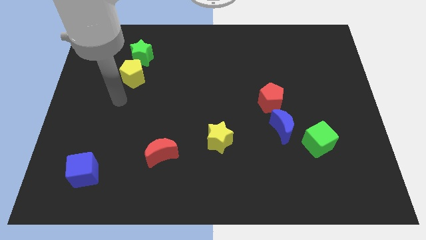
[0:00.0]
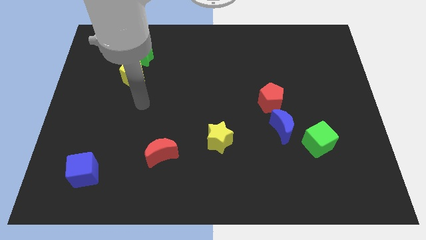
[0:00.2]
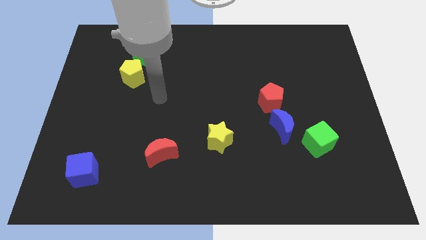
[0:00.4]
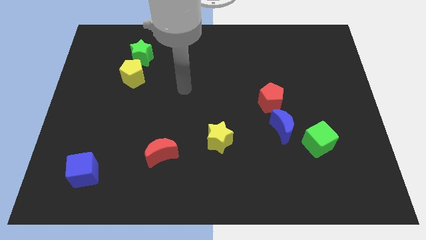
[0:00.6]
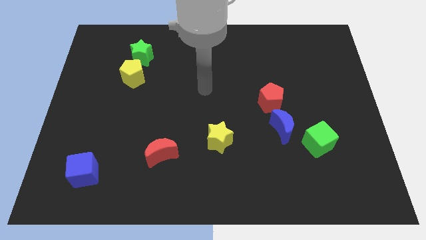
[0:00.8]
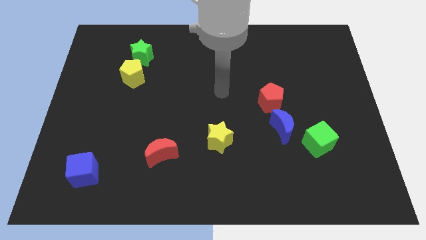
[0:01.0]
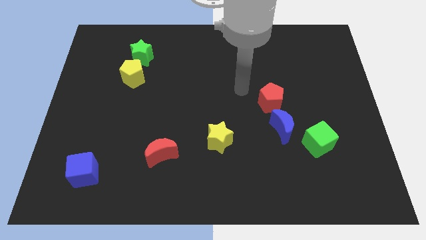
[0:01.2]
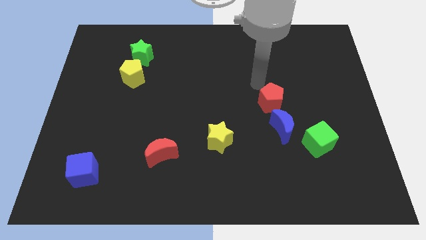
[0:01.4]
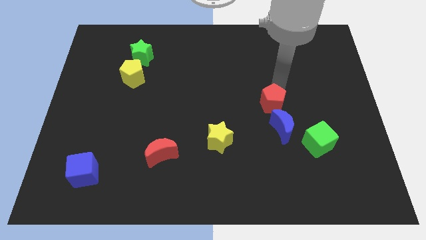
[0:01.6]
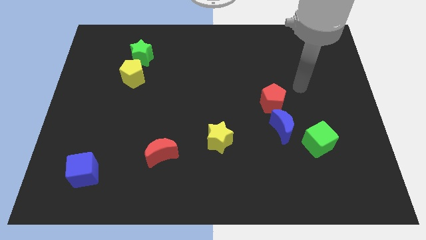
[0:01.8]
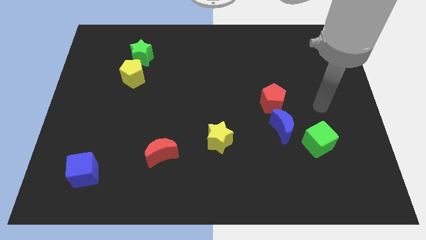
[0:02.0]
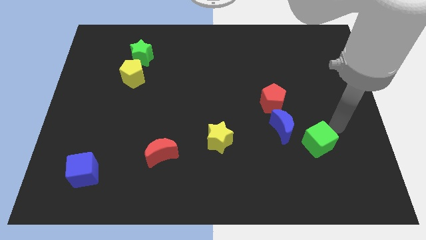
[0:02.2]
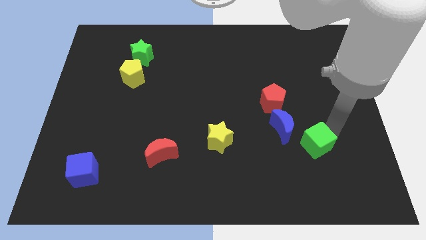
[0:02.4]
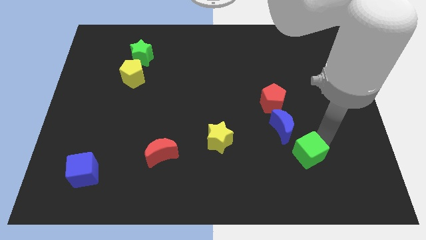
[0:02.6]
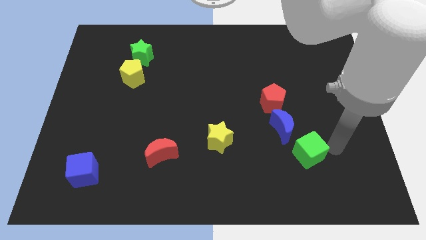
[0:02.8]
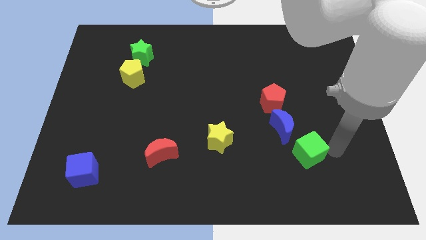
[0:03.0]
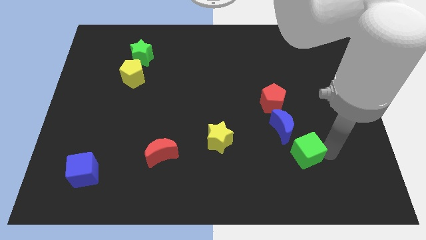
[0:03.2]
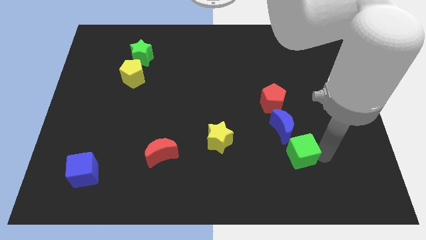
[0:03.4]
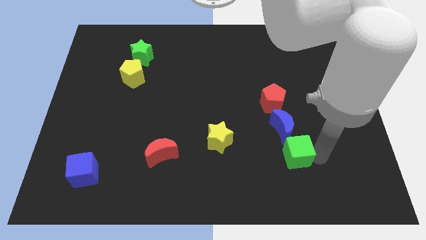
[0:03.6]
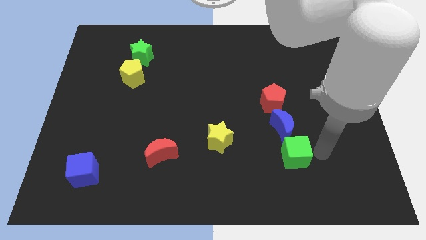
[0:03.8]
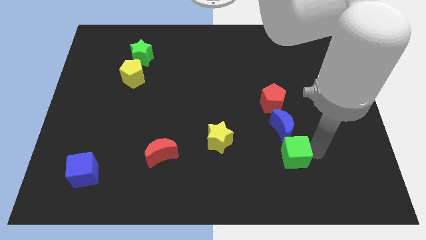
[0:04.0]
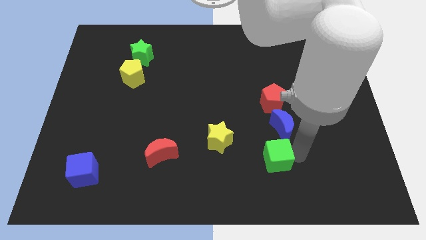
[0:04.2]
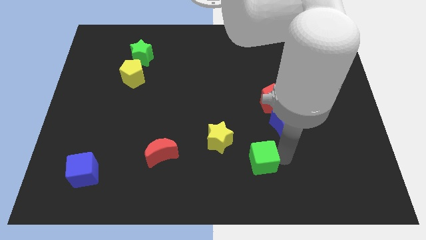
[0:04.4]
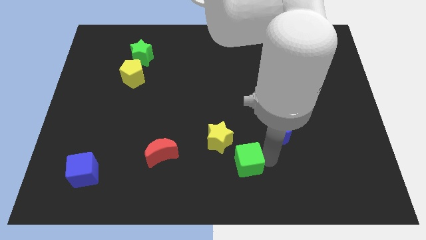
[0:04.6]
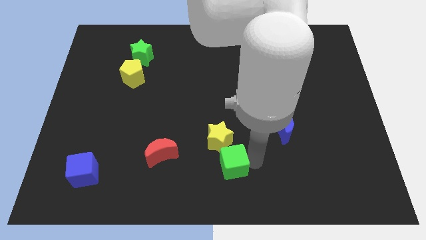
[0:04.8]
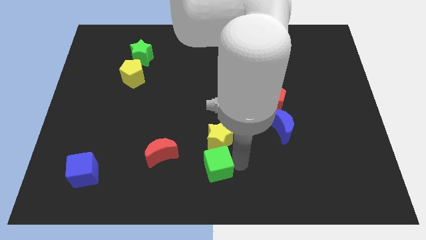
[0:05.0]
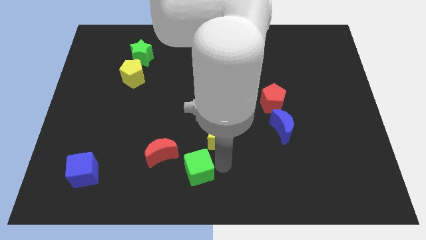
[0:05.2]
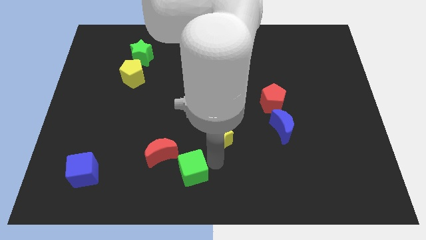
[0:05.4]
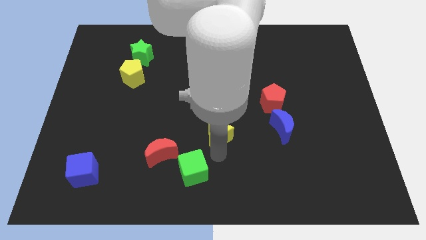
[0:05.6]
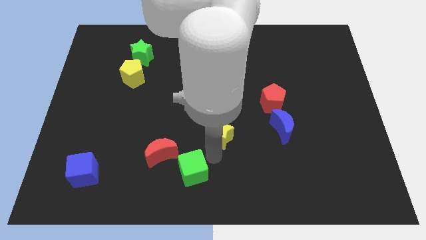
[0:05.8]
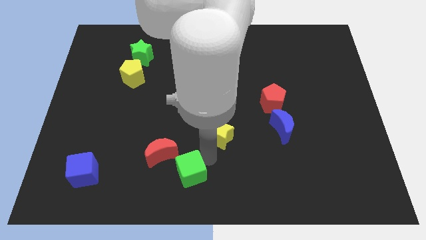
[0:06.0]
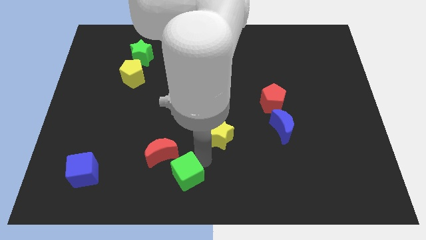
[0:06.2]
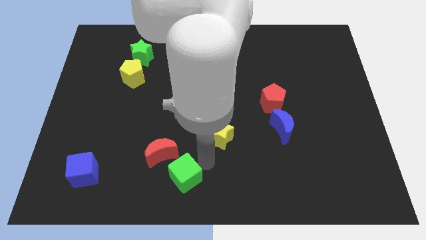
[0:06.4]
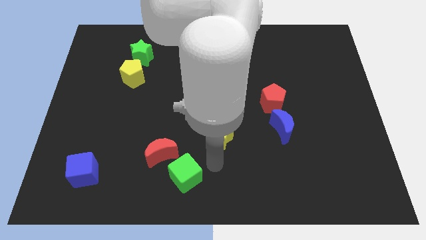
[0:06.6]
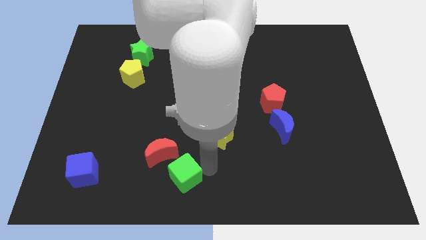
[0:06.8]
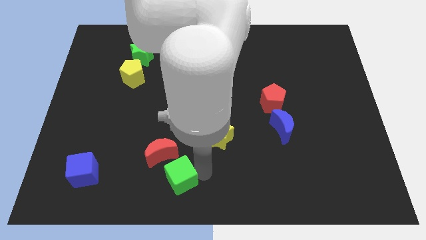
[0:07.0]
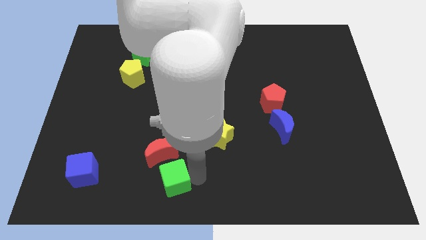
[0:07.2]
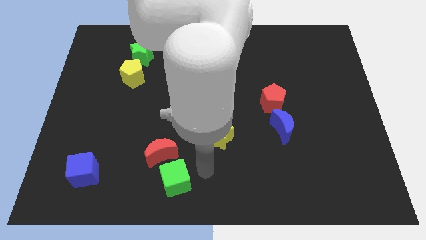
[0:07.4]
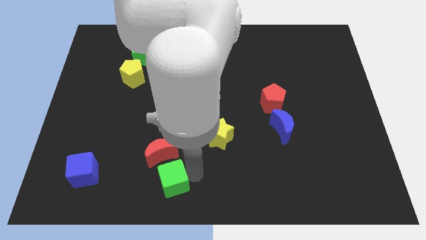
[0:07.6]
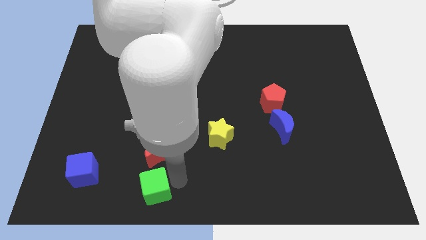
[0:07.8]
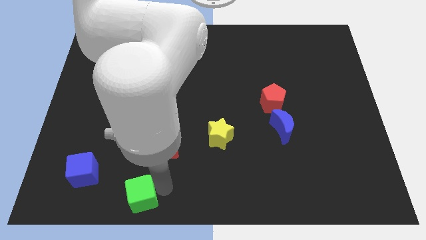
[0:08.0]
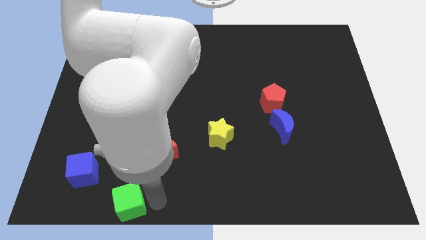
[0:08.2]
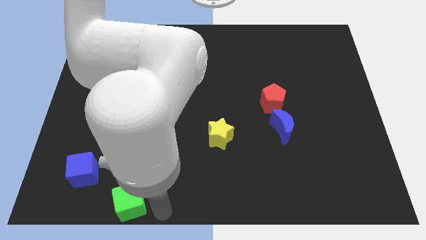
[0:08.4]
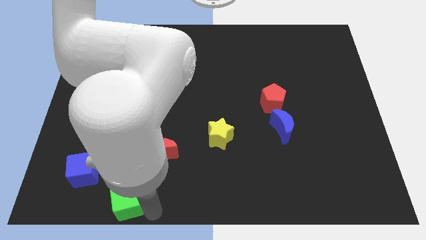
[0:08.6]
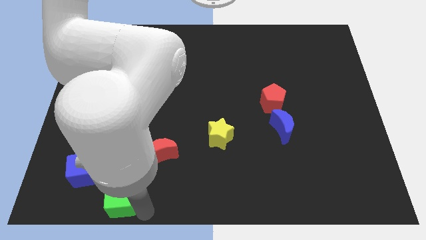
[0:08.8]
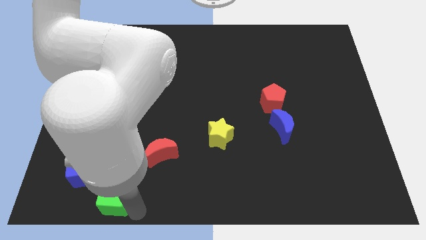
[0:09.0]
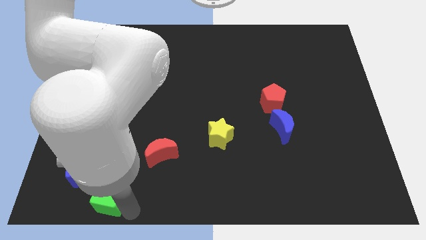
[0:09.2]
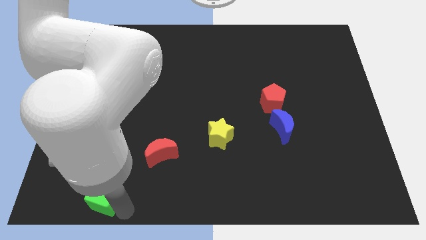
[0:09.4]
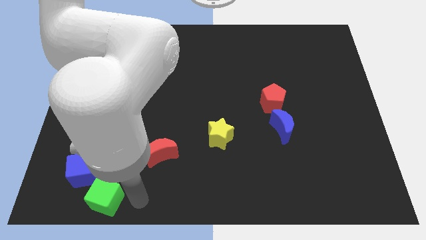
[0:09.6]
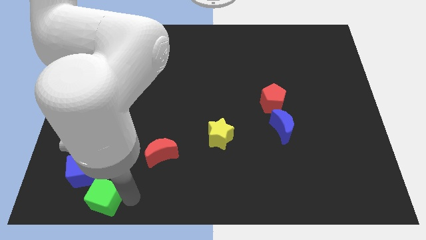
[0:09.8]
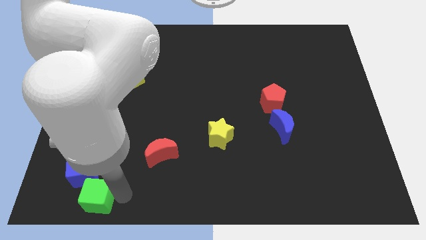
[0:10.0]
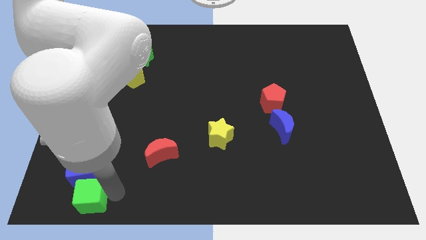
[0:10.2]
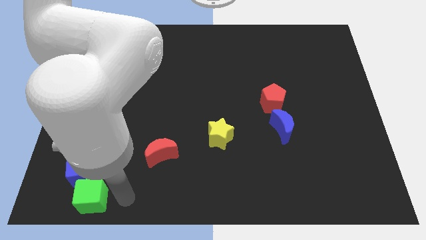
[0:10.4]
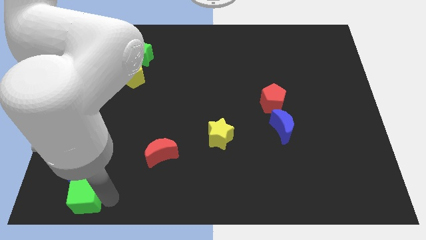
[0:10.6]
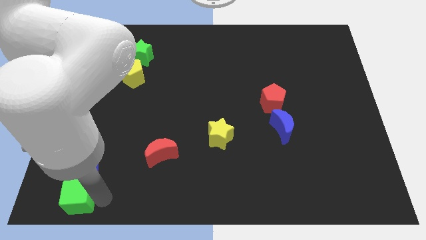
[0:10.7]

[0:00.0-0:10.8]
push the green cube to the lower left corner

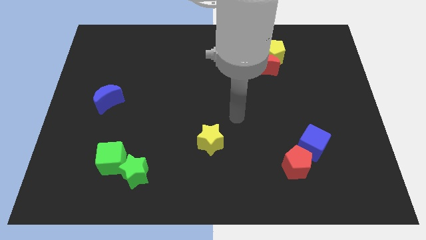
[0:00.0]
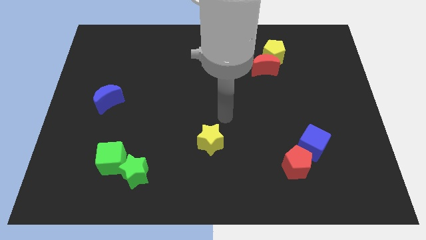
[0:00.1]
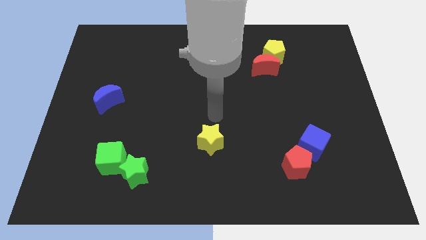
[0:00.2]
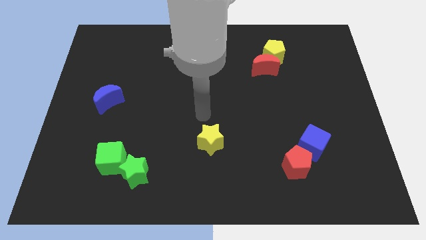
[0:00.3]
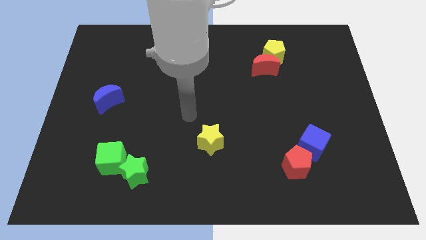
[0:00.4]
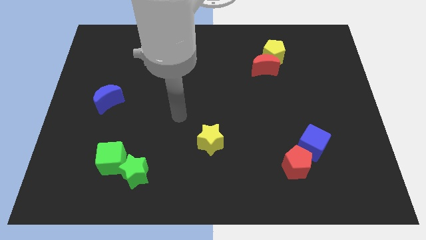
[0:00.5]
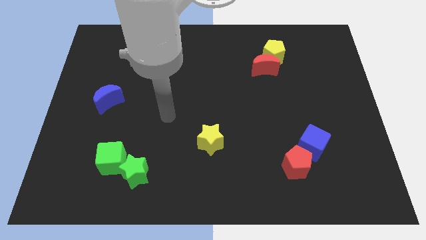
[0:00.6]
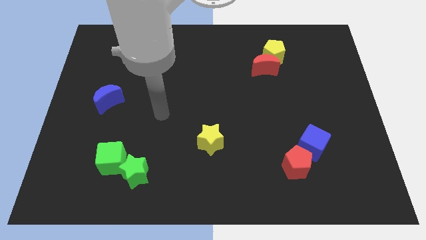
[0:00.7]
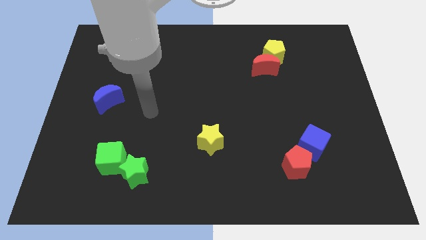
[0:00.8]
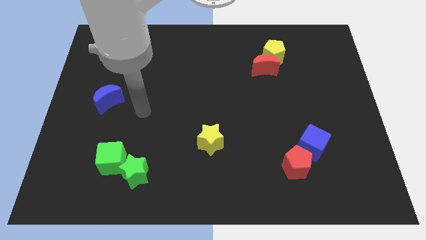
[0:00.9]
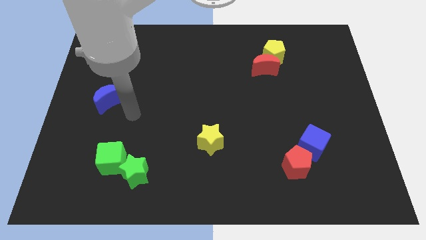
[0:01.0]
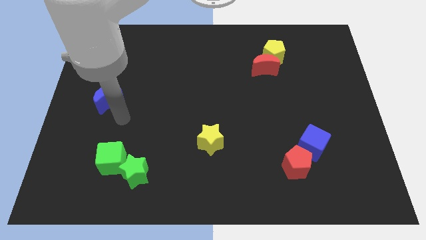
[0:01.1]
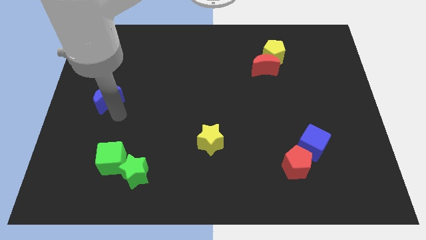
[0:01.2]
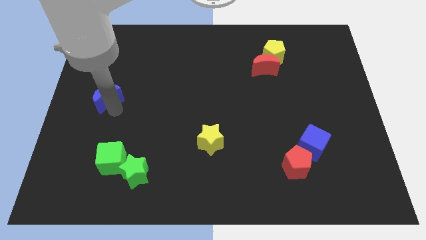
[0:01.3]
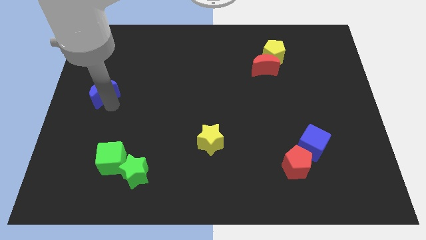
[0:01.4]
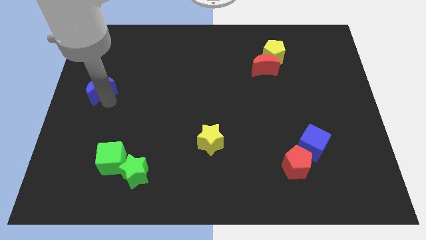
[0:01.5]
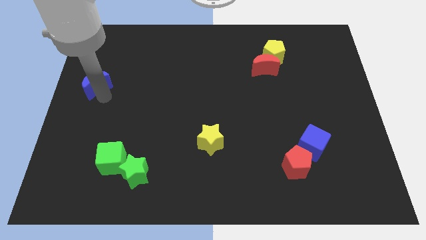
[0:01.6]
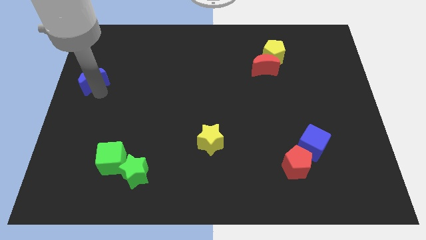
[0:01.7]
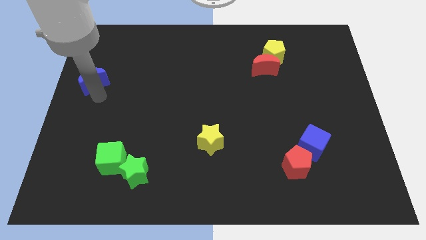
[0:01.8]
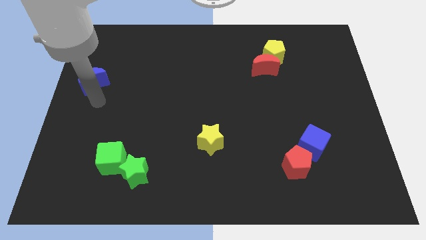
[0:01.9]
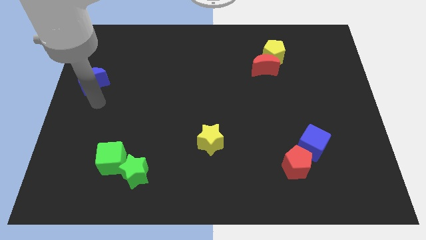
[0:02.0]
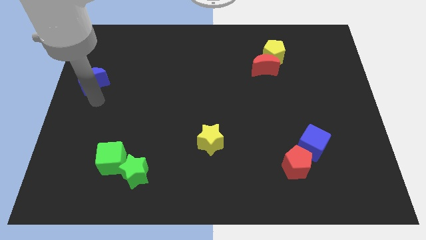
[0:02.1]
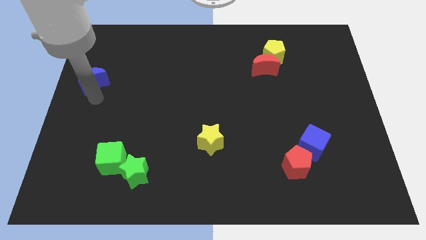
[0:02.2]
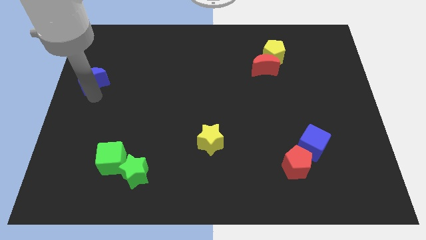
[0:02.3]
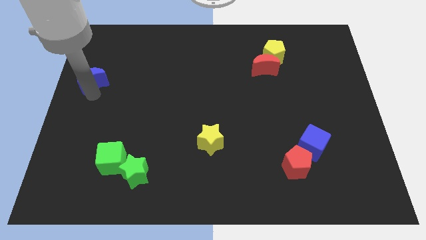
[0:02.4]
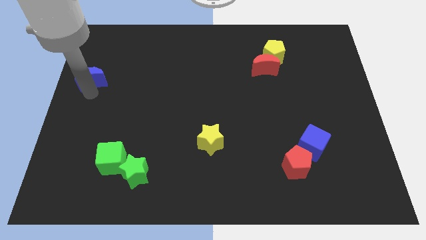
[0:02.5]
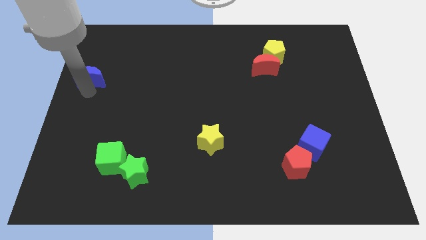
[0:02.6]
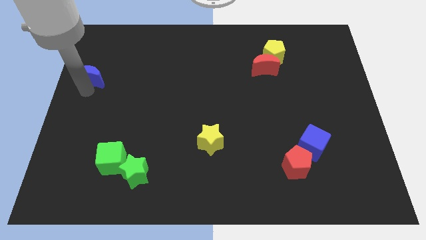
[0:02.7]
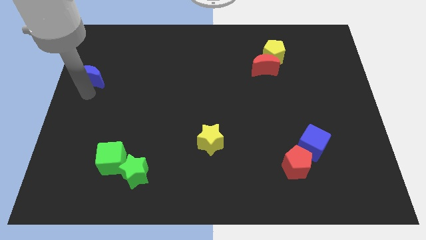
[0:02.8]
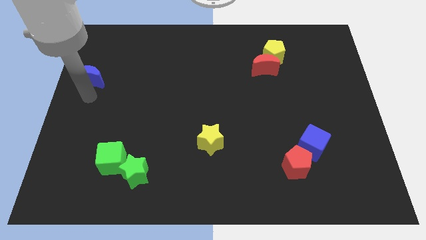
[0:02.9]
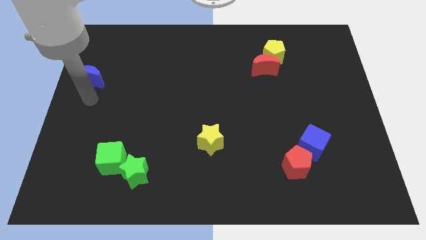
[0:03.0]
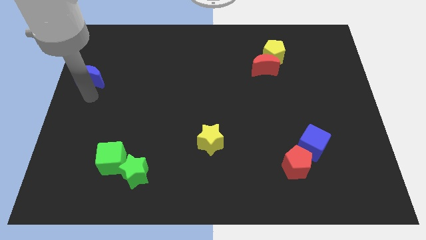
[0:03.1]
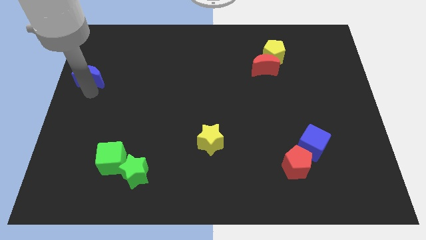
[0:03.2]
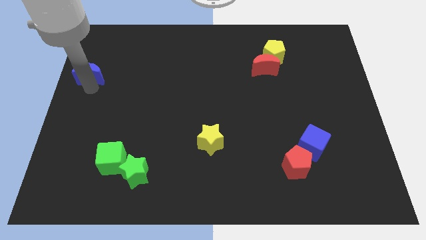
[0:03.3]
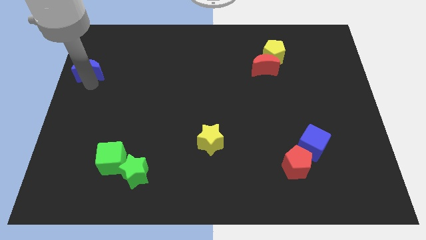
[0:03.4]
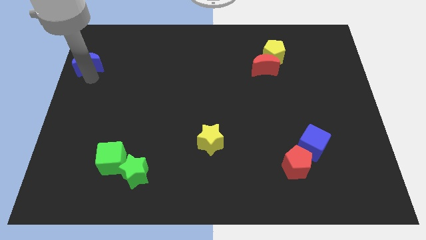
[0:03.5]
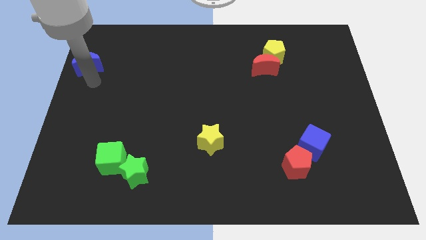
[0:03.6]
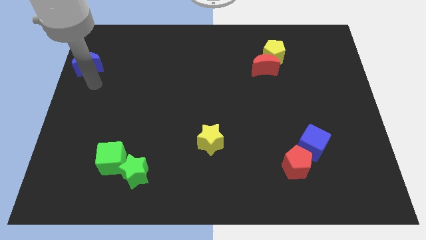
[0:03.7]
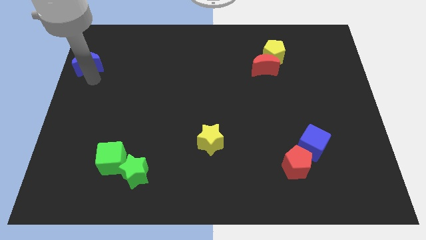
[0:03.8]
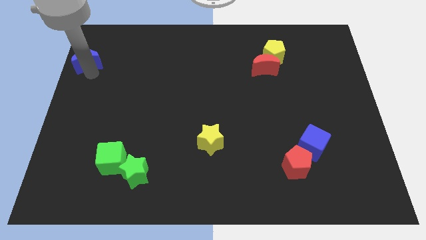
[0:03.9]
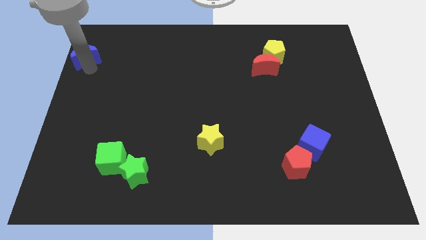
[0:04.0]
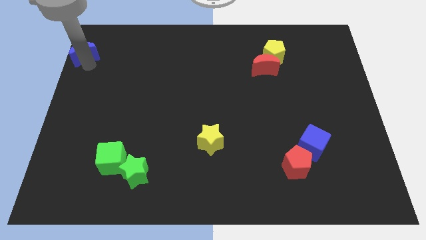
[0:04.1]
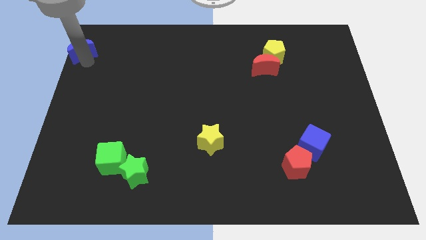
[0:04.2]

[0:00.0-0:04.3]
slide the blue moon to the top left of the board
